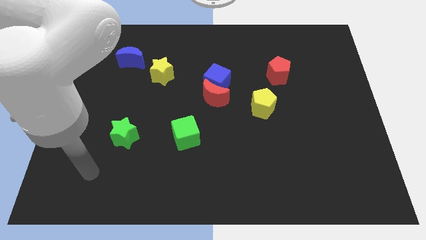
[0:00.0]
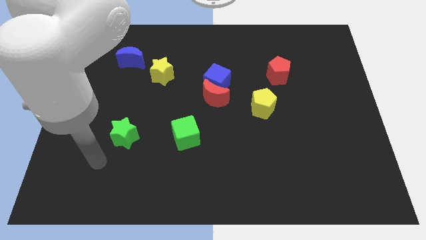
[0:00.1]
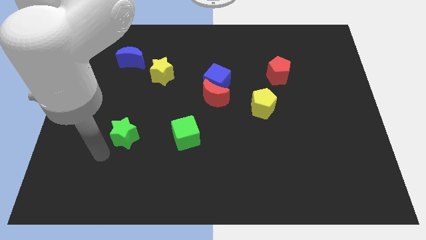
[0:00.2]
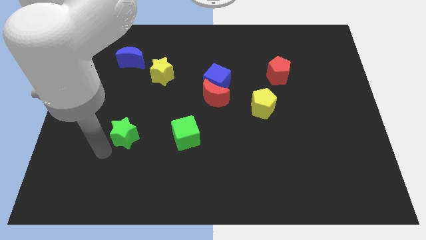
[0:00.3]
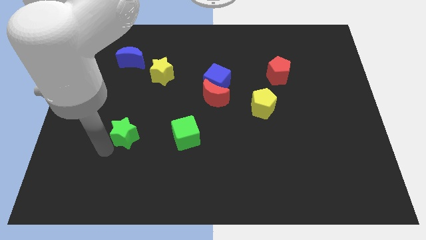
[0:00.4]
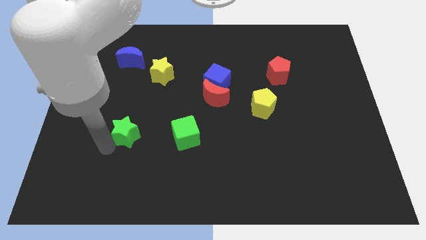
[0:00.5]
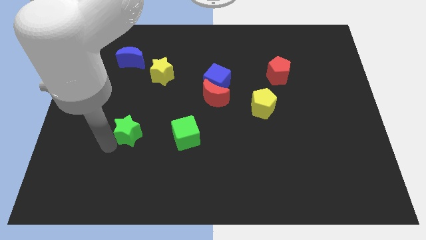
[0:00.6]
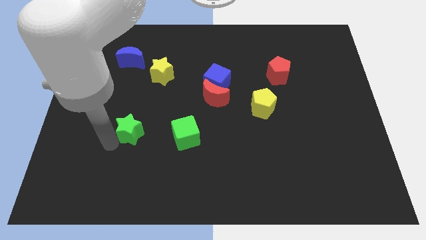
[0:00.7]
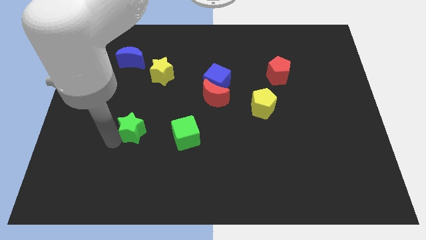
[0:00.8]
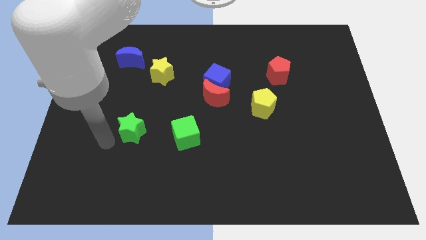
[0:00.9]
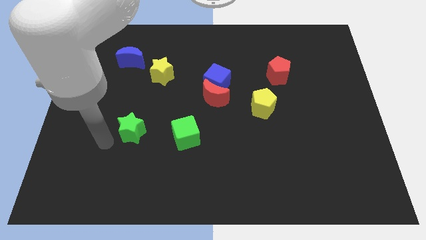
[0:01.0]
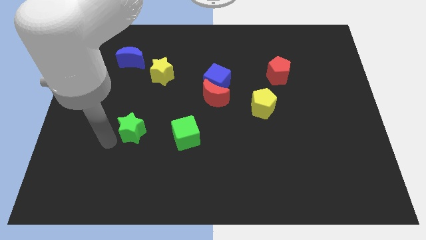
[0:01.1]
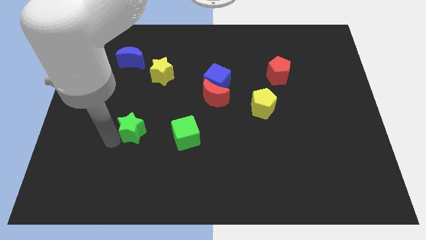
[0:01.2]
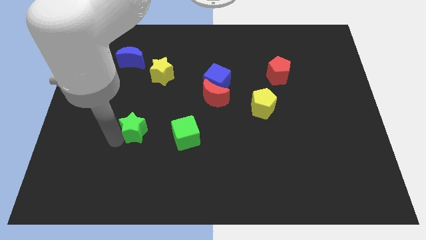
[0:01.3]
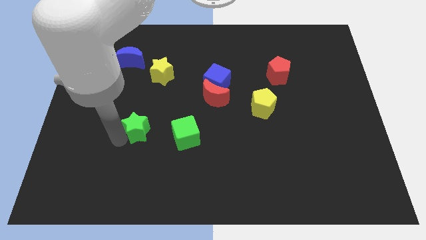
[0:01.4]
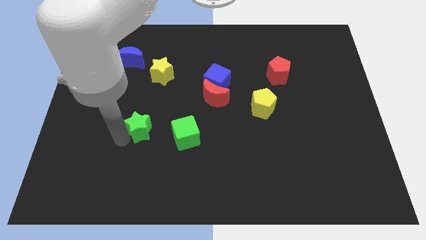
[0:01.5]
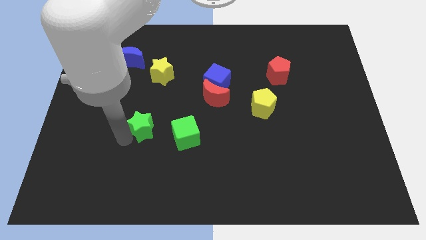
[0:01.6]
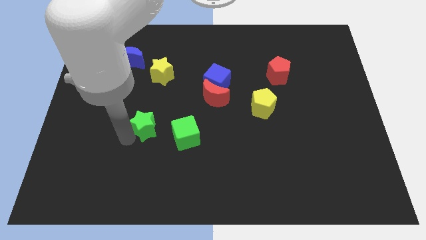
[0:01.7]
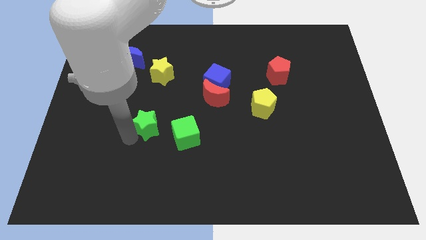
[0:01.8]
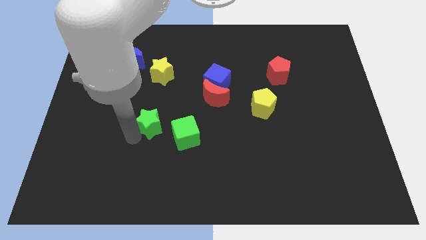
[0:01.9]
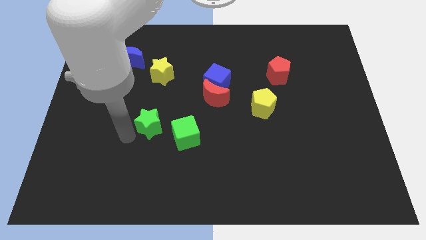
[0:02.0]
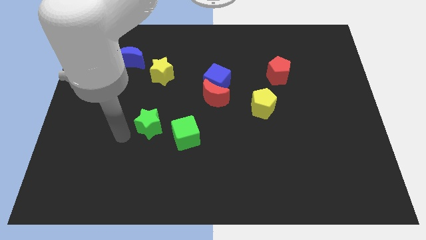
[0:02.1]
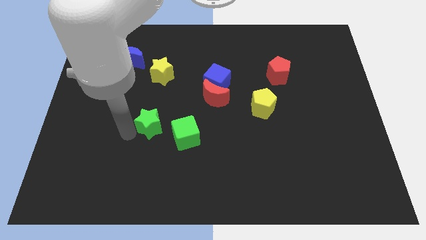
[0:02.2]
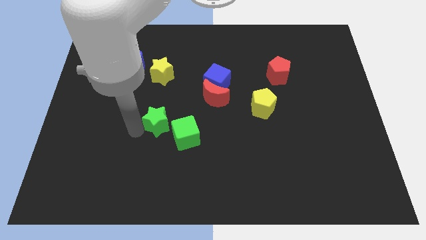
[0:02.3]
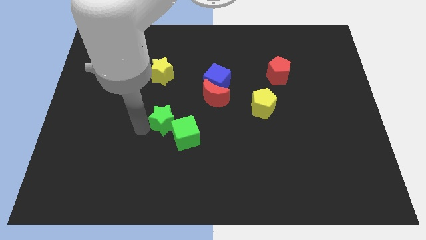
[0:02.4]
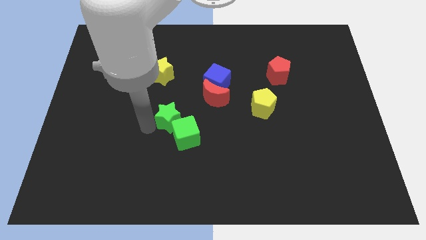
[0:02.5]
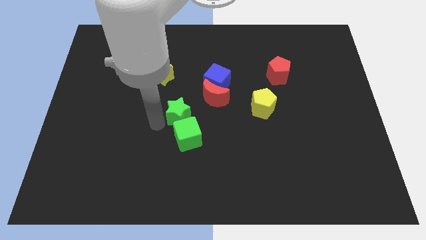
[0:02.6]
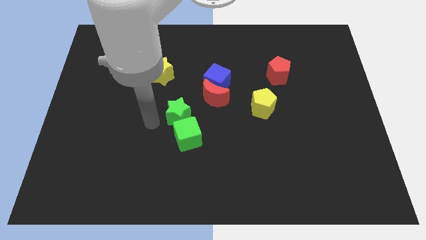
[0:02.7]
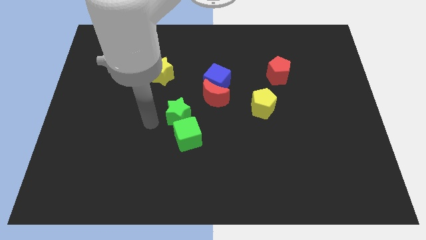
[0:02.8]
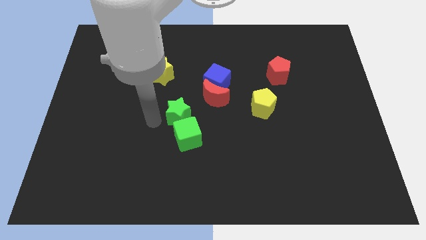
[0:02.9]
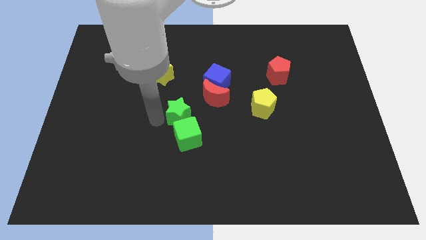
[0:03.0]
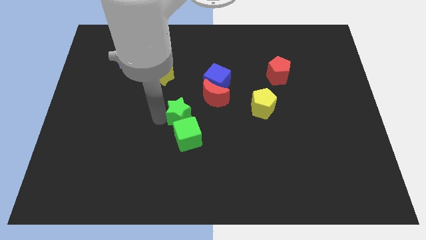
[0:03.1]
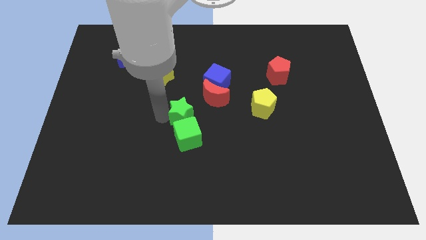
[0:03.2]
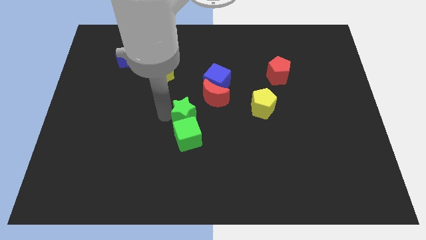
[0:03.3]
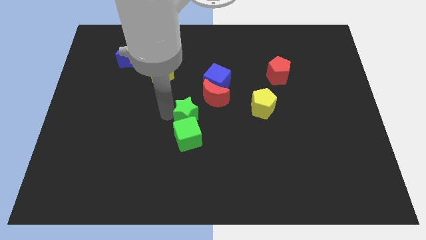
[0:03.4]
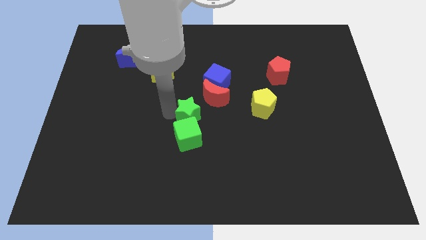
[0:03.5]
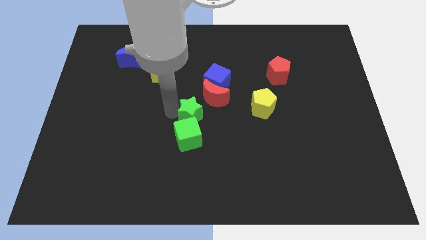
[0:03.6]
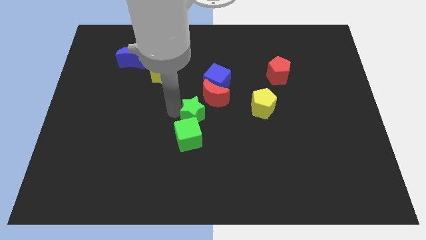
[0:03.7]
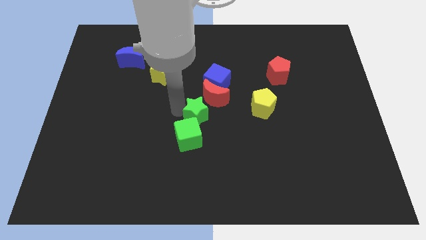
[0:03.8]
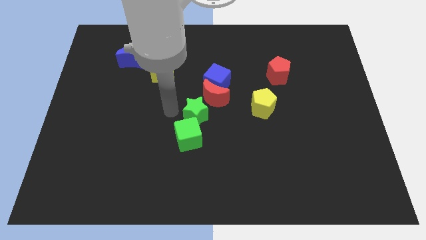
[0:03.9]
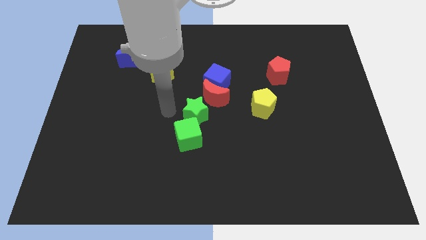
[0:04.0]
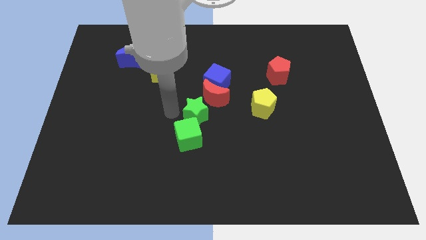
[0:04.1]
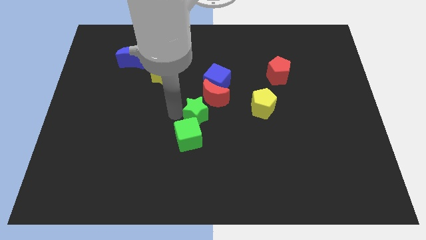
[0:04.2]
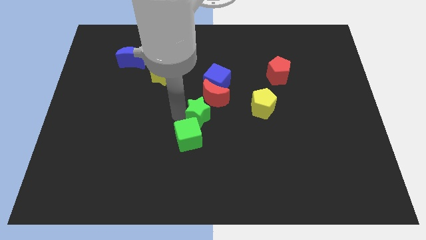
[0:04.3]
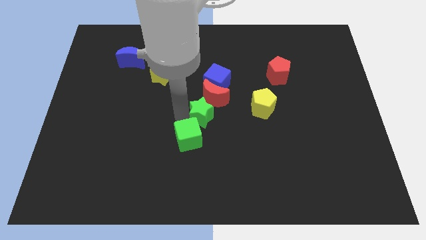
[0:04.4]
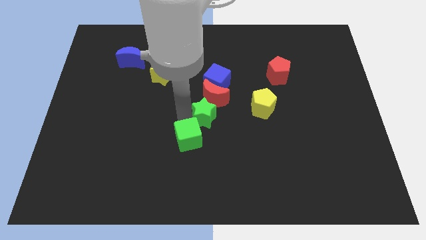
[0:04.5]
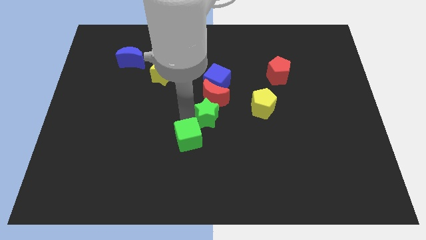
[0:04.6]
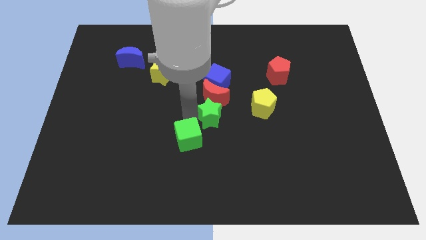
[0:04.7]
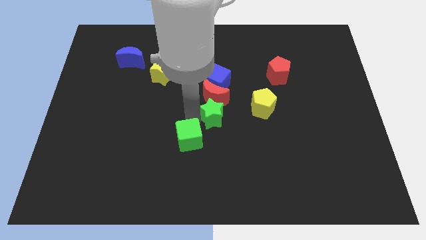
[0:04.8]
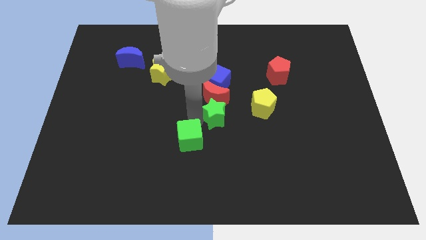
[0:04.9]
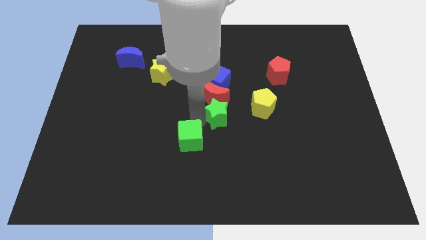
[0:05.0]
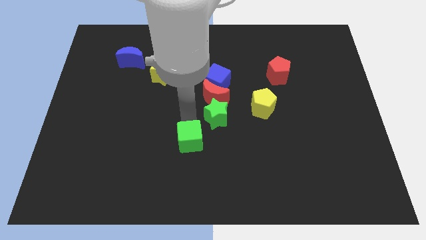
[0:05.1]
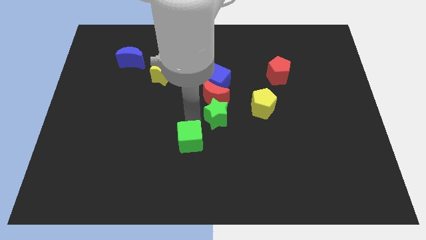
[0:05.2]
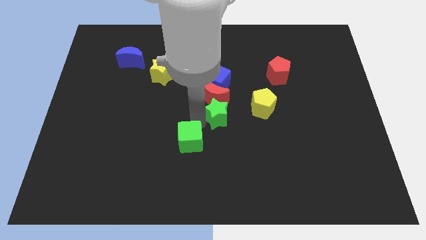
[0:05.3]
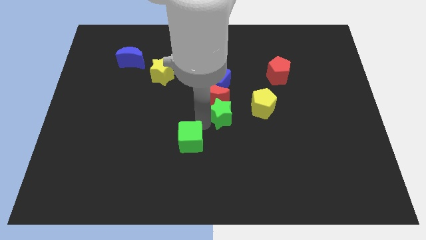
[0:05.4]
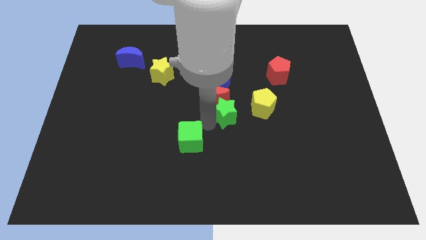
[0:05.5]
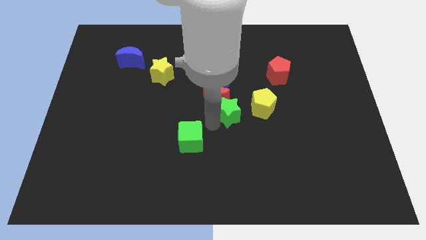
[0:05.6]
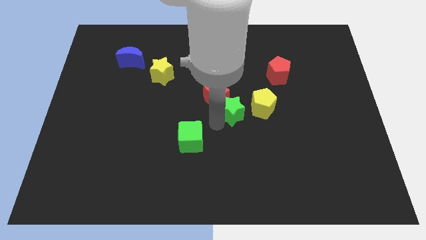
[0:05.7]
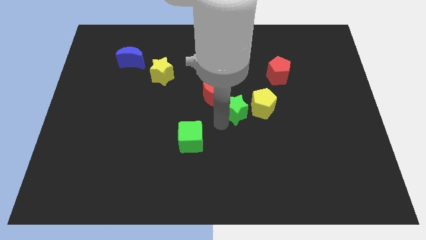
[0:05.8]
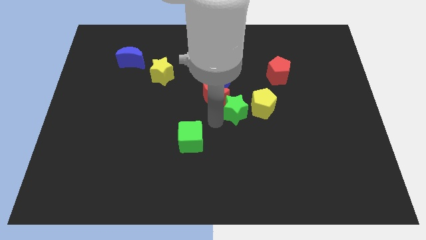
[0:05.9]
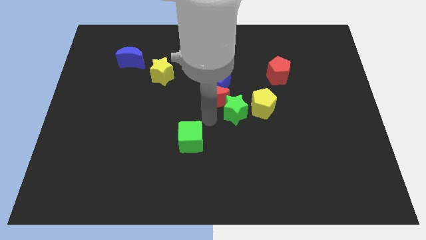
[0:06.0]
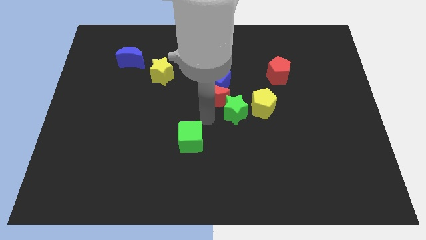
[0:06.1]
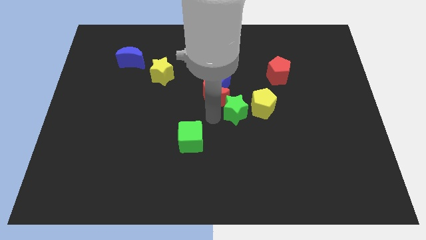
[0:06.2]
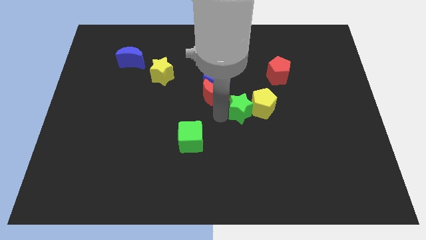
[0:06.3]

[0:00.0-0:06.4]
put the green star towards the yellow pentagon
